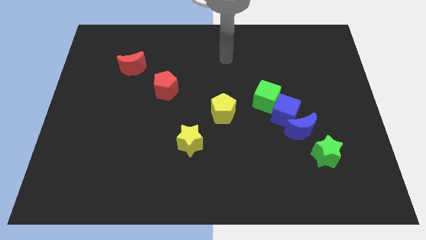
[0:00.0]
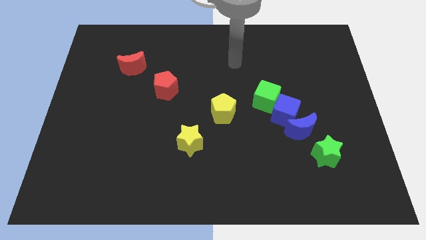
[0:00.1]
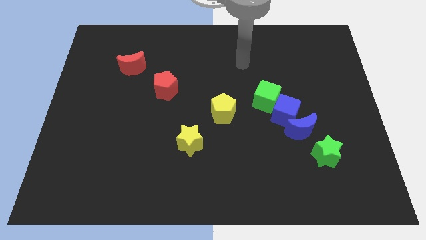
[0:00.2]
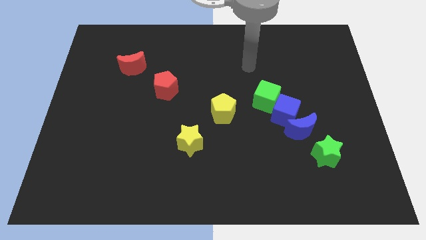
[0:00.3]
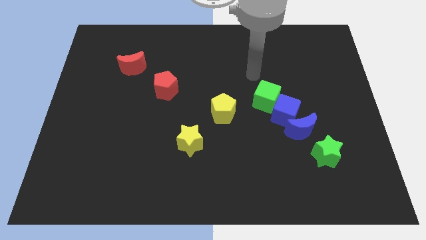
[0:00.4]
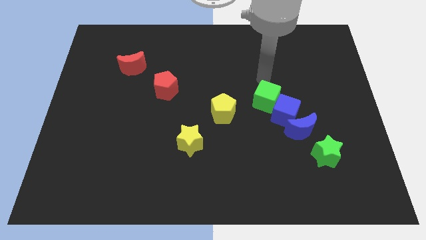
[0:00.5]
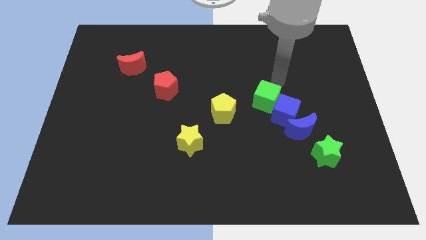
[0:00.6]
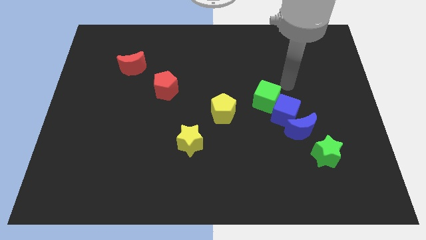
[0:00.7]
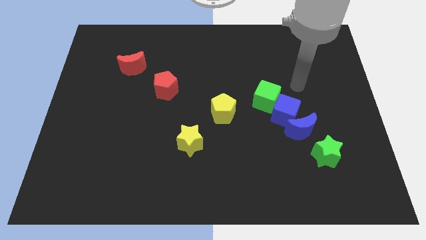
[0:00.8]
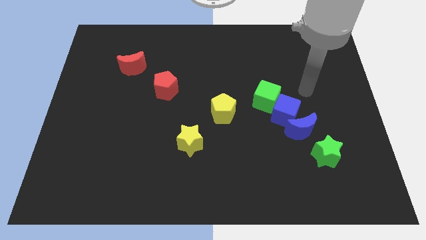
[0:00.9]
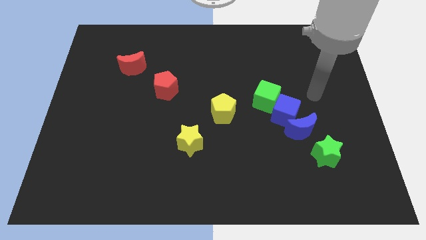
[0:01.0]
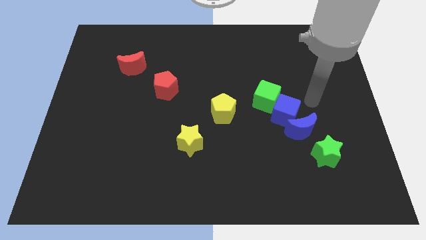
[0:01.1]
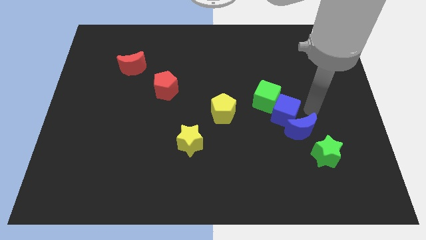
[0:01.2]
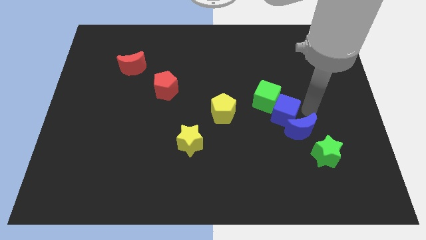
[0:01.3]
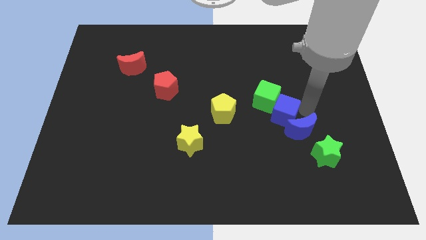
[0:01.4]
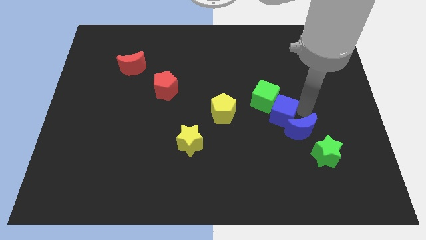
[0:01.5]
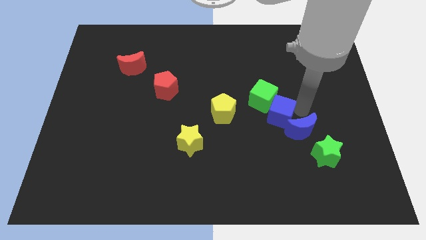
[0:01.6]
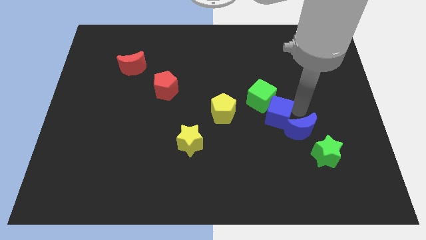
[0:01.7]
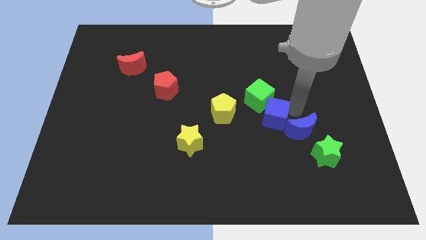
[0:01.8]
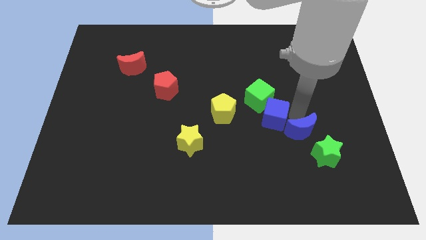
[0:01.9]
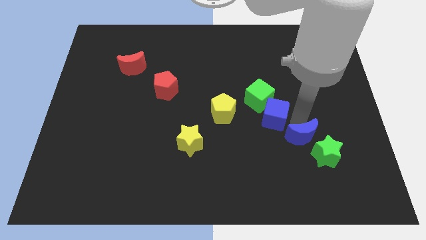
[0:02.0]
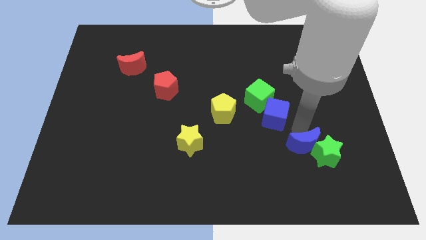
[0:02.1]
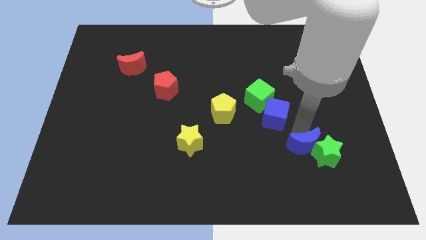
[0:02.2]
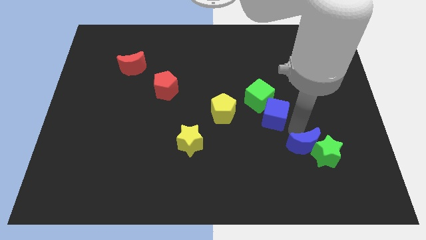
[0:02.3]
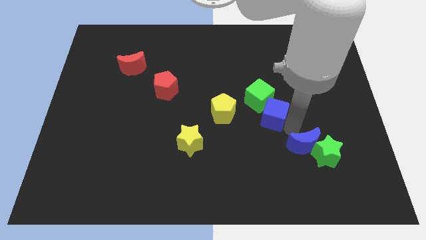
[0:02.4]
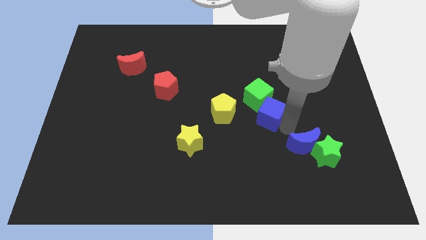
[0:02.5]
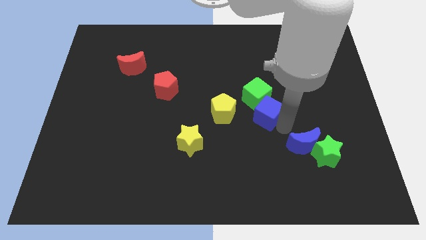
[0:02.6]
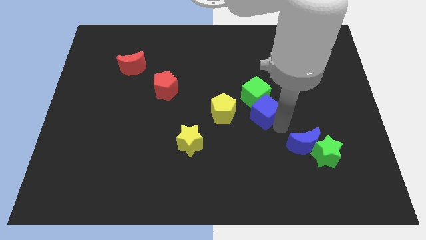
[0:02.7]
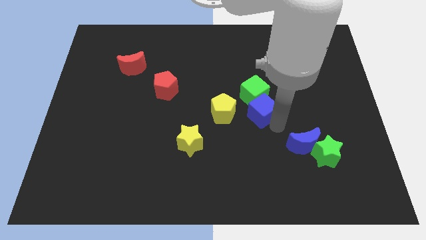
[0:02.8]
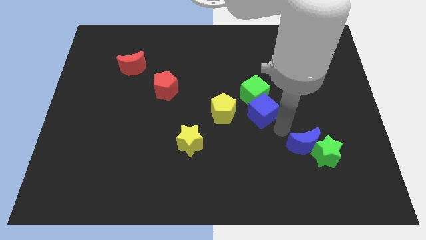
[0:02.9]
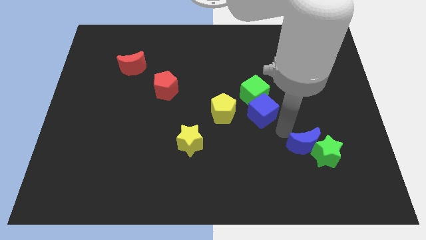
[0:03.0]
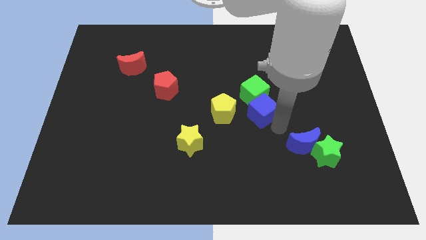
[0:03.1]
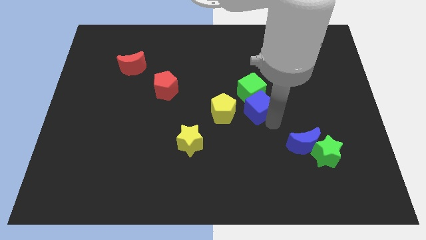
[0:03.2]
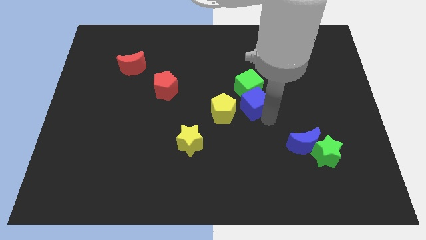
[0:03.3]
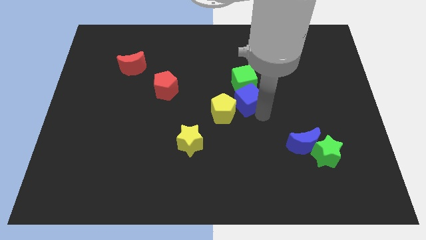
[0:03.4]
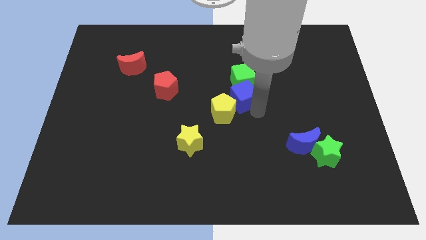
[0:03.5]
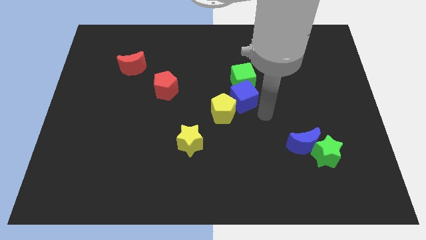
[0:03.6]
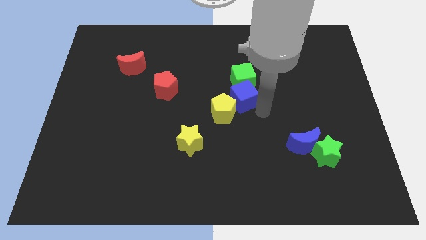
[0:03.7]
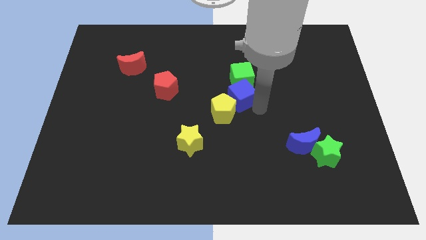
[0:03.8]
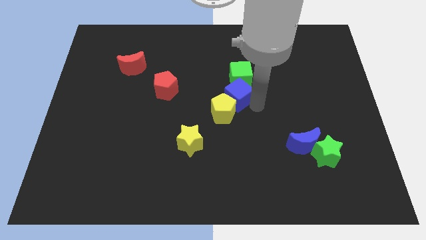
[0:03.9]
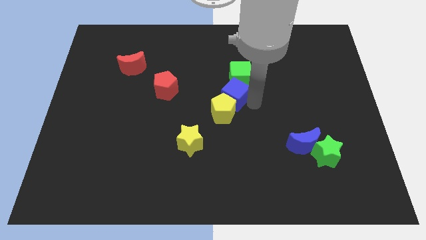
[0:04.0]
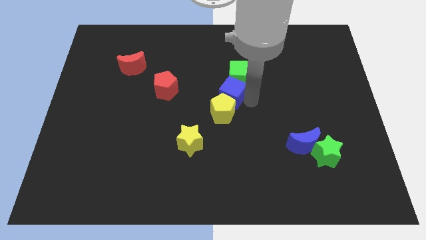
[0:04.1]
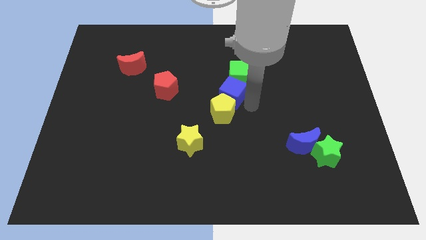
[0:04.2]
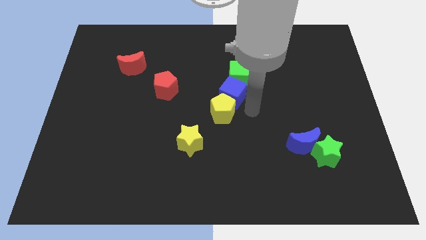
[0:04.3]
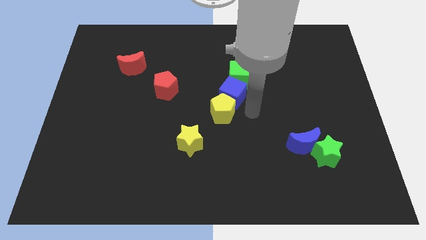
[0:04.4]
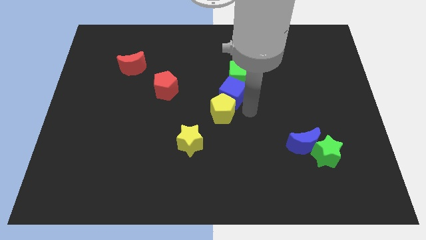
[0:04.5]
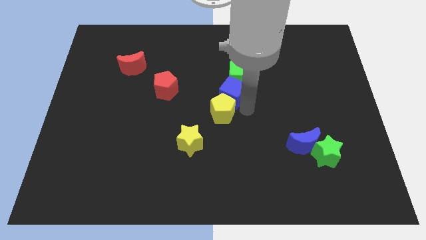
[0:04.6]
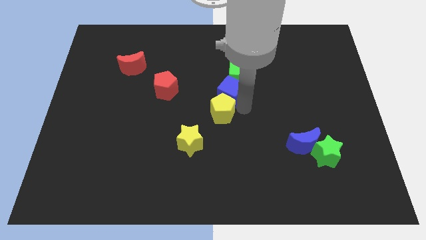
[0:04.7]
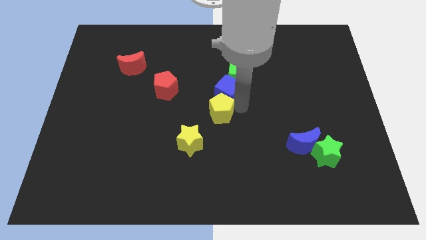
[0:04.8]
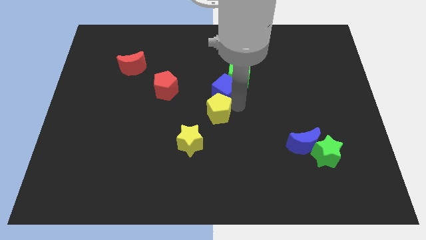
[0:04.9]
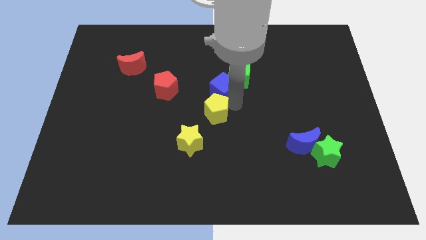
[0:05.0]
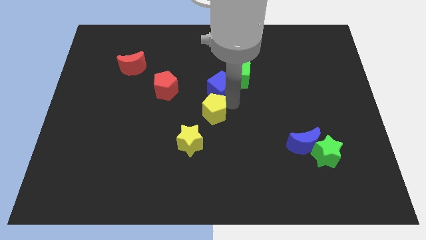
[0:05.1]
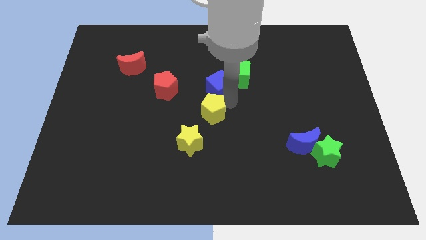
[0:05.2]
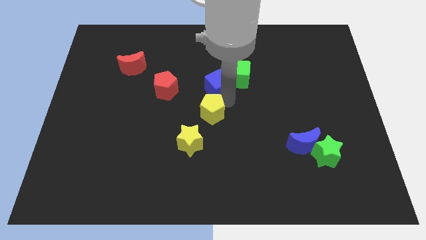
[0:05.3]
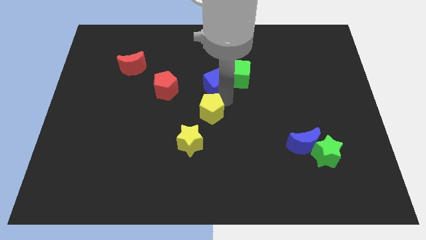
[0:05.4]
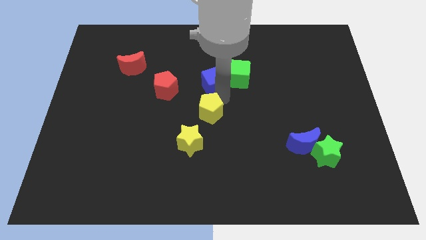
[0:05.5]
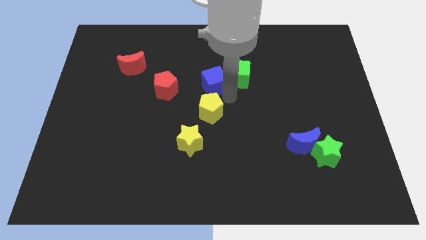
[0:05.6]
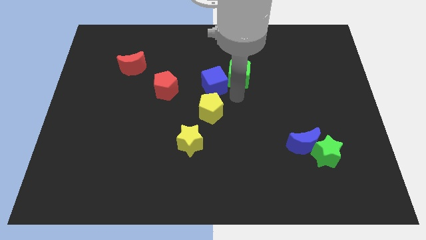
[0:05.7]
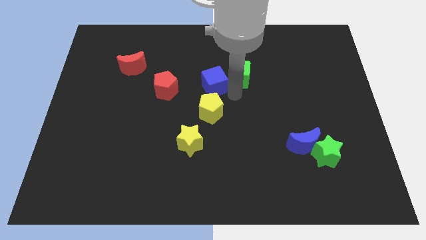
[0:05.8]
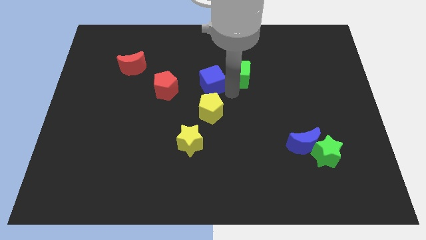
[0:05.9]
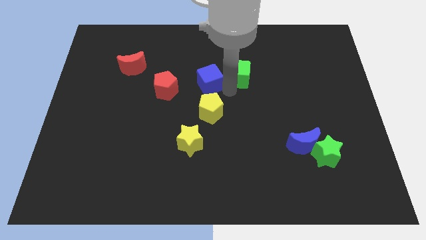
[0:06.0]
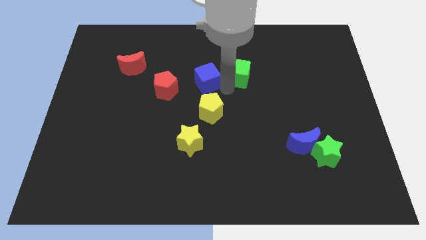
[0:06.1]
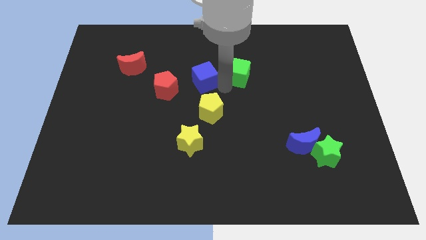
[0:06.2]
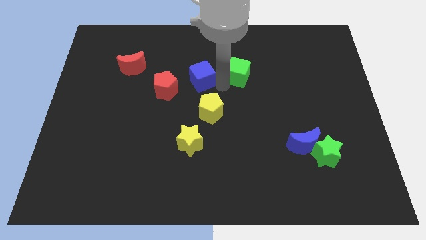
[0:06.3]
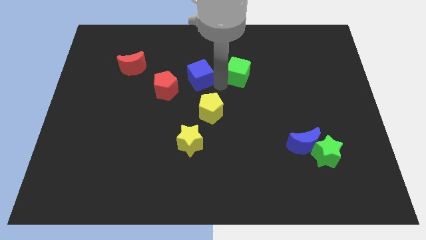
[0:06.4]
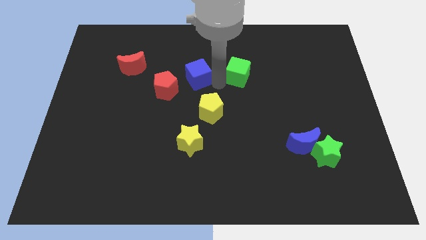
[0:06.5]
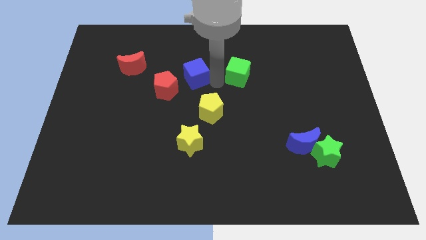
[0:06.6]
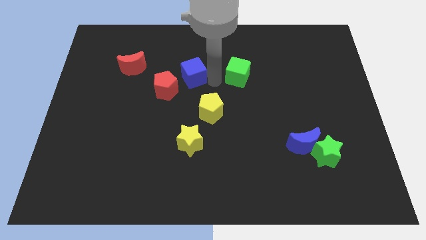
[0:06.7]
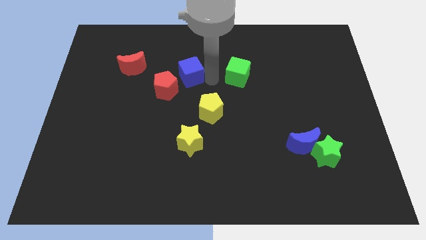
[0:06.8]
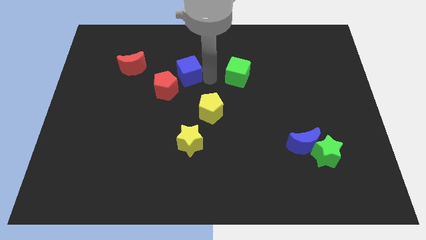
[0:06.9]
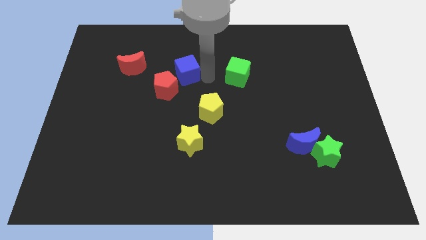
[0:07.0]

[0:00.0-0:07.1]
move the blue cube to the top side of the red pentagon

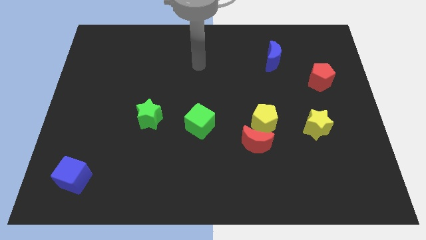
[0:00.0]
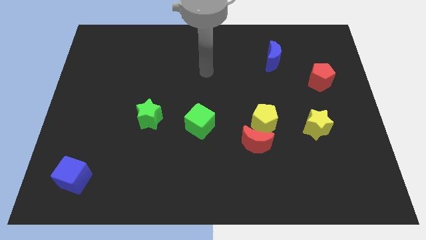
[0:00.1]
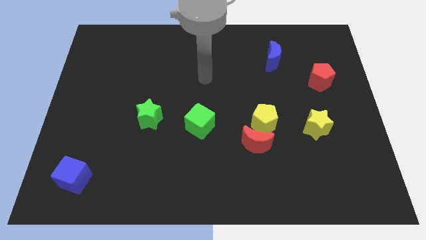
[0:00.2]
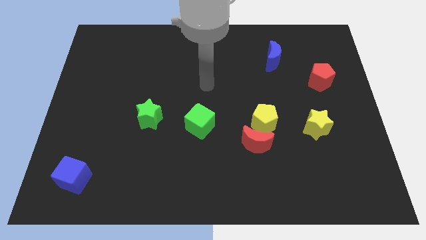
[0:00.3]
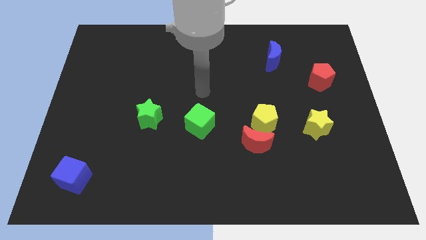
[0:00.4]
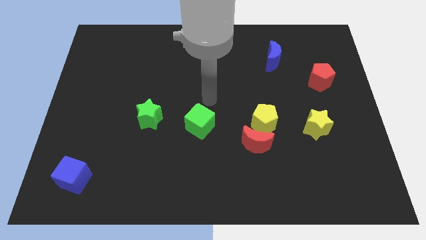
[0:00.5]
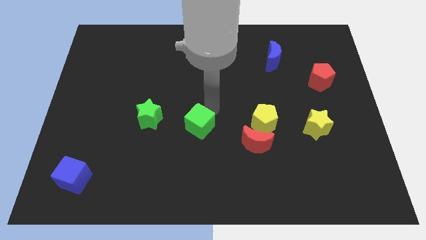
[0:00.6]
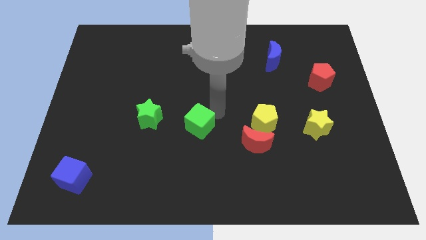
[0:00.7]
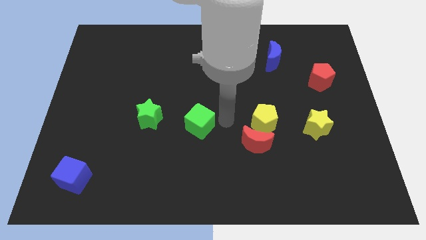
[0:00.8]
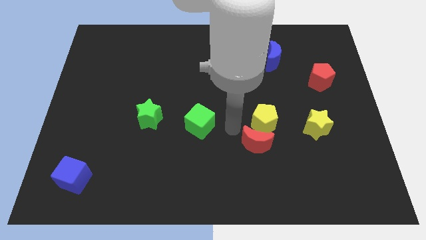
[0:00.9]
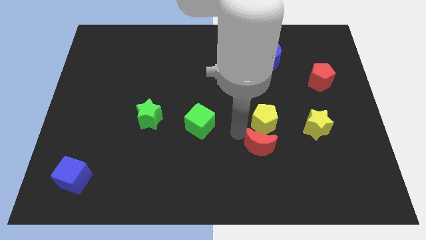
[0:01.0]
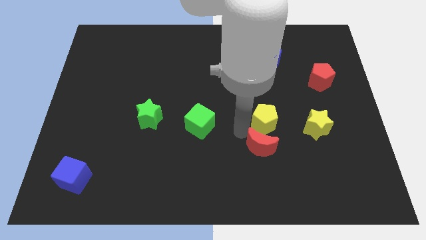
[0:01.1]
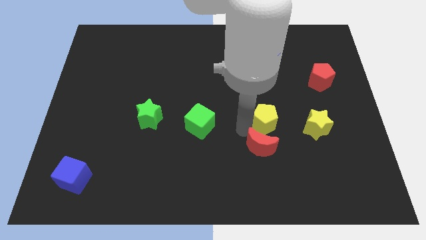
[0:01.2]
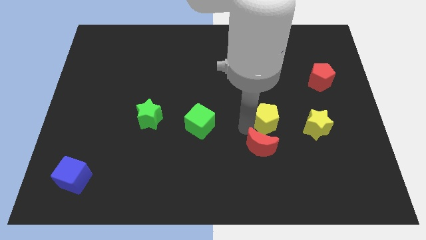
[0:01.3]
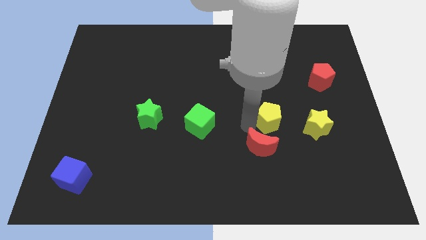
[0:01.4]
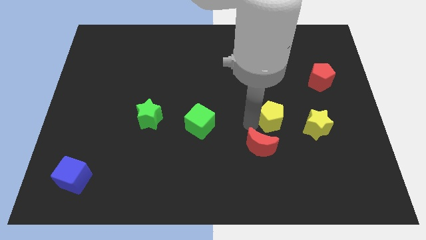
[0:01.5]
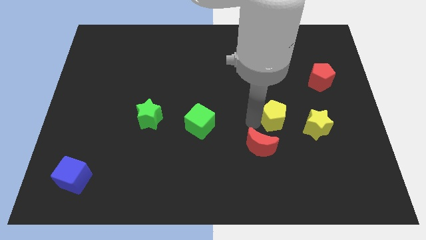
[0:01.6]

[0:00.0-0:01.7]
move the yellow pentagon diagonally up and to the left of the yellow star
